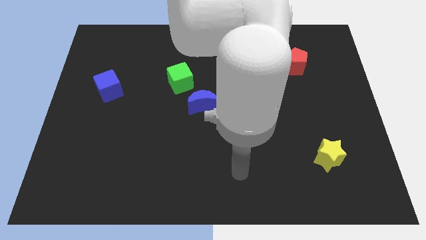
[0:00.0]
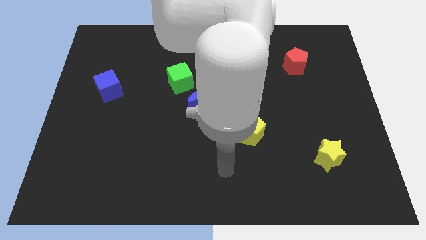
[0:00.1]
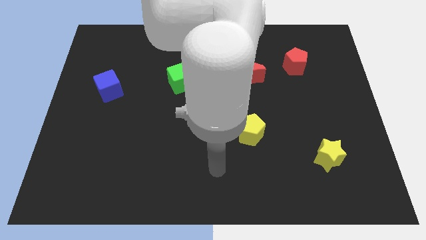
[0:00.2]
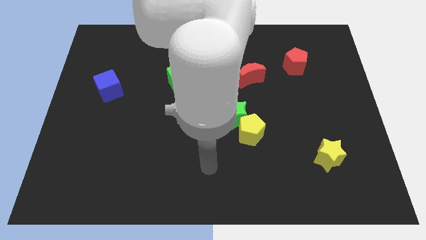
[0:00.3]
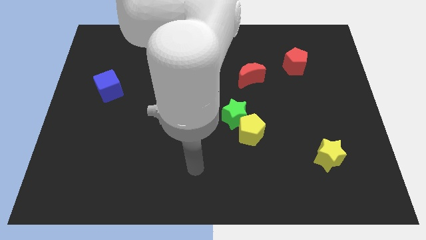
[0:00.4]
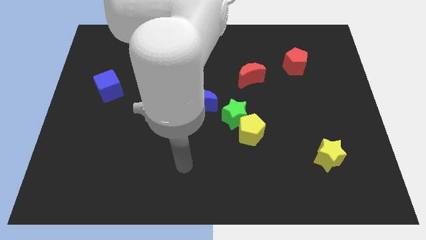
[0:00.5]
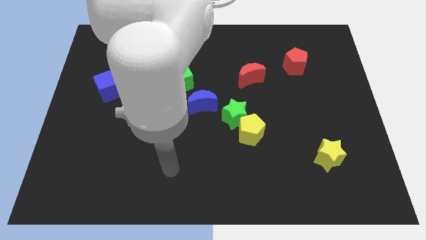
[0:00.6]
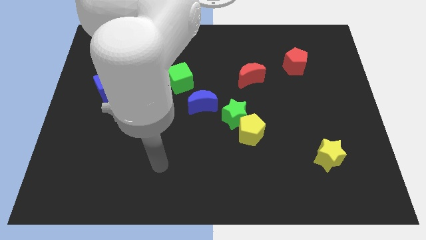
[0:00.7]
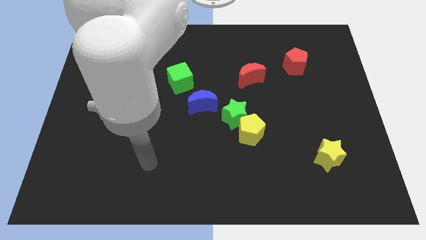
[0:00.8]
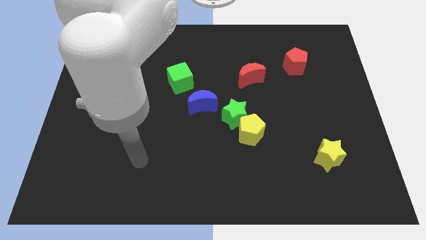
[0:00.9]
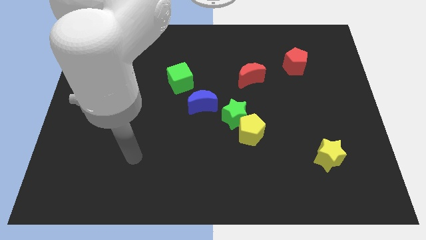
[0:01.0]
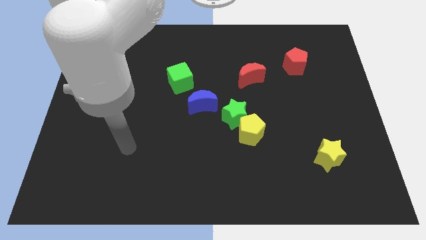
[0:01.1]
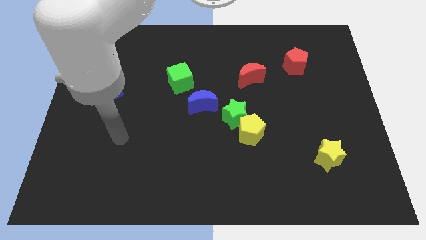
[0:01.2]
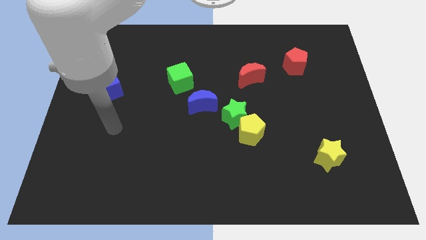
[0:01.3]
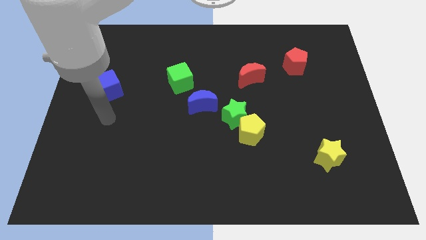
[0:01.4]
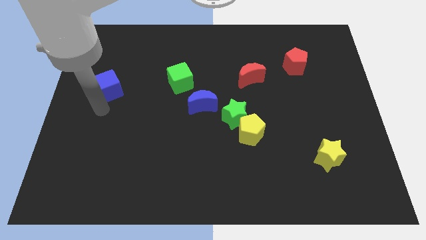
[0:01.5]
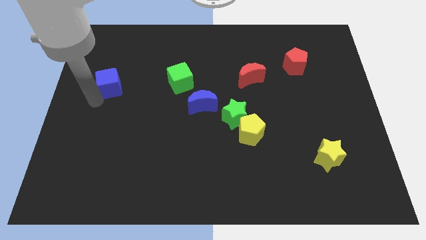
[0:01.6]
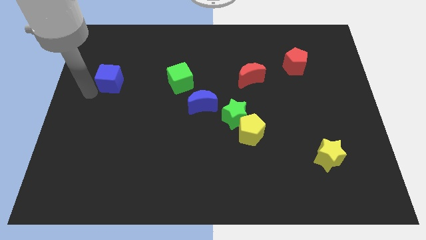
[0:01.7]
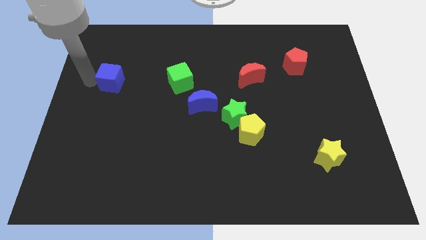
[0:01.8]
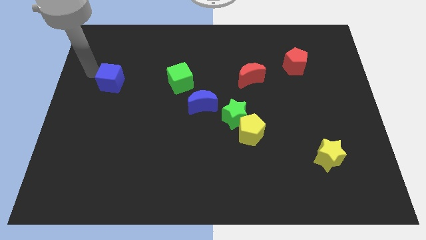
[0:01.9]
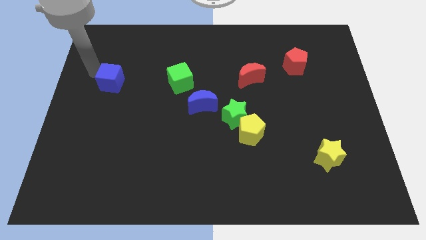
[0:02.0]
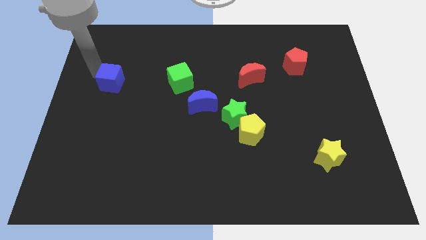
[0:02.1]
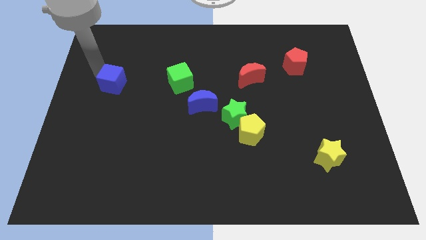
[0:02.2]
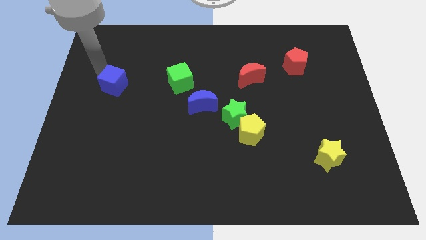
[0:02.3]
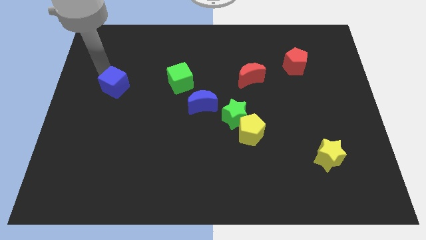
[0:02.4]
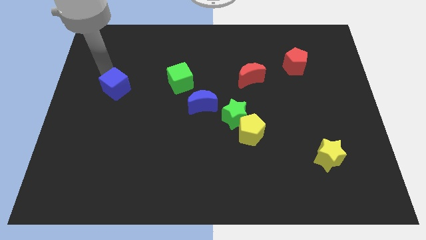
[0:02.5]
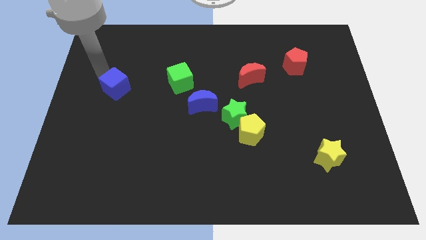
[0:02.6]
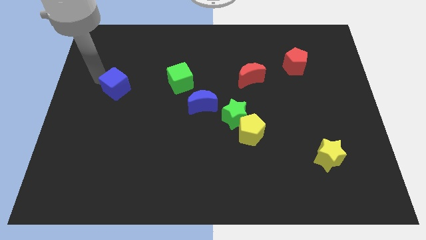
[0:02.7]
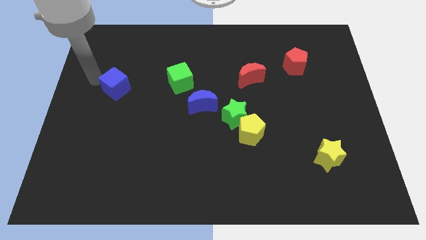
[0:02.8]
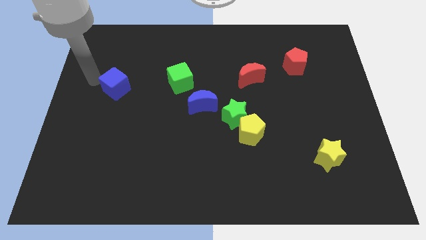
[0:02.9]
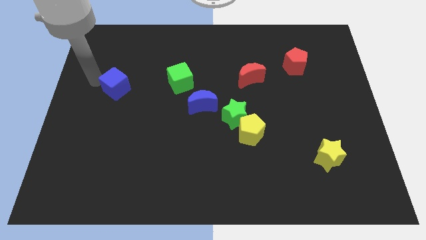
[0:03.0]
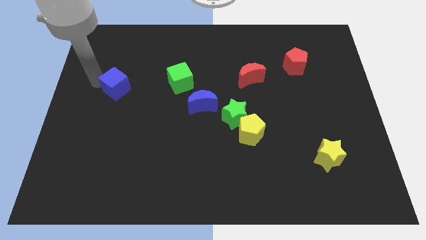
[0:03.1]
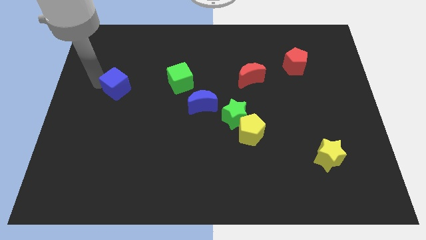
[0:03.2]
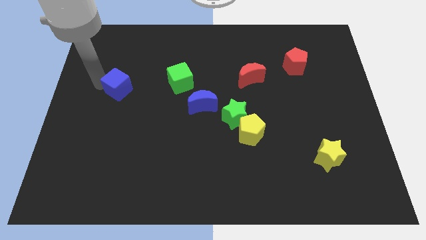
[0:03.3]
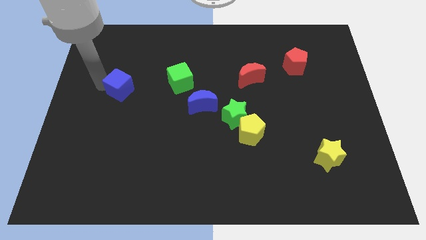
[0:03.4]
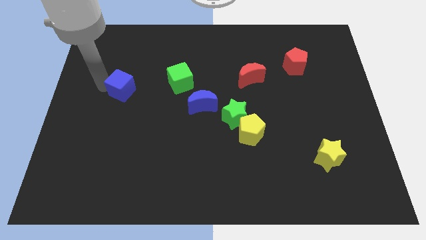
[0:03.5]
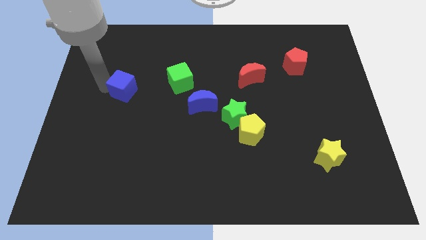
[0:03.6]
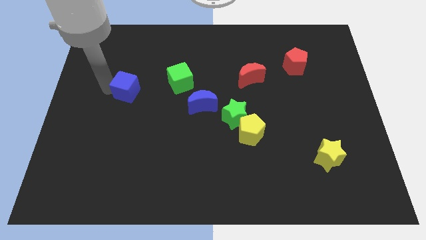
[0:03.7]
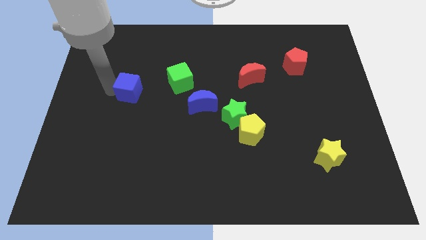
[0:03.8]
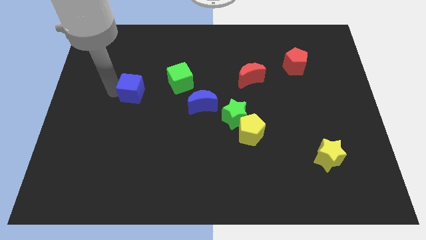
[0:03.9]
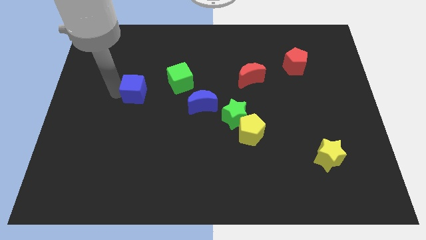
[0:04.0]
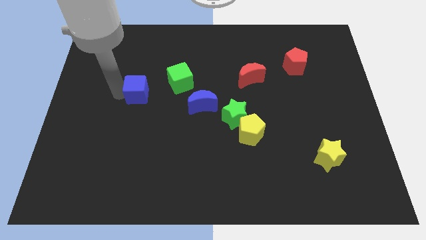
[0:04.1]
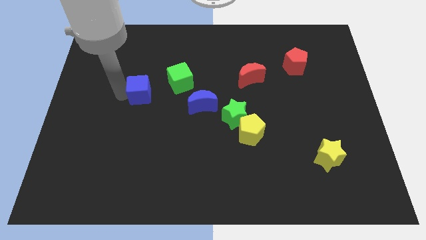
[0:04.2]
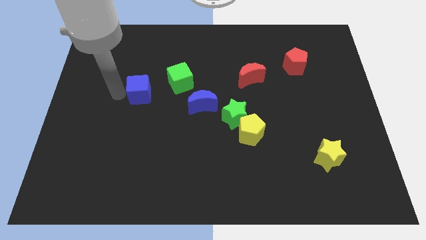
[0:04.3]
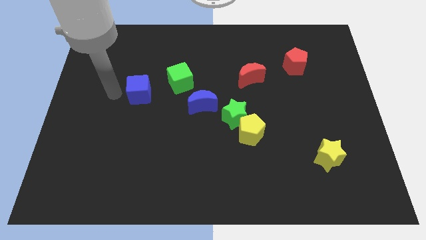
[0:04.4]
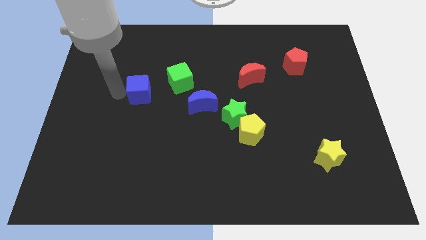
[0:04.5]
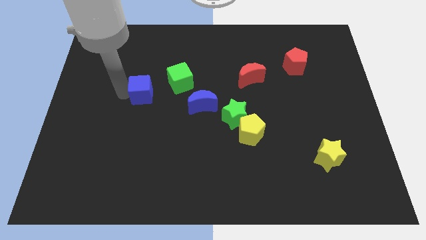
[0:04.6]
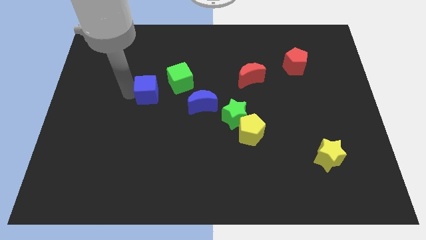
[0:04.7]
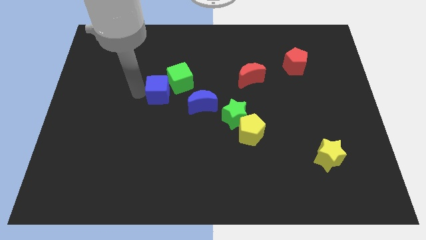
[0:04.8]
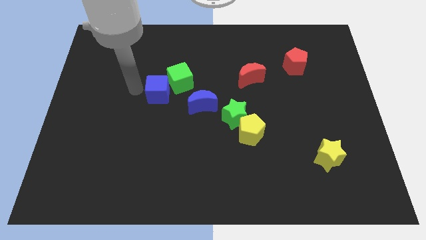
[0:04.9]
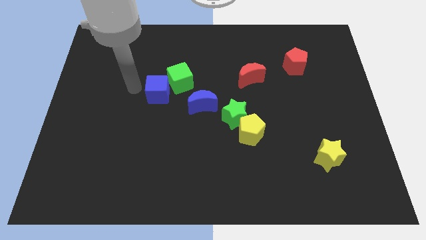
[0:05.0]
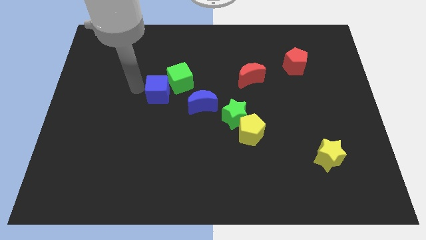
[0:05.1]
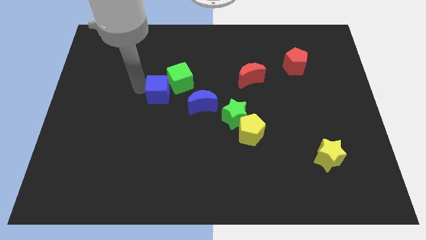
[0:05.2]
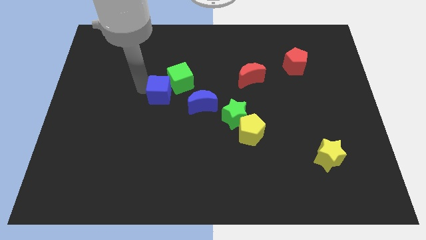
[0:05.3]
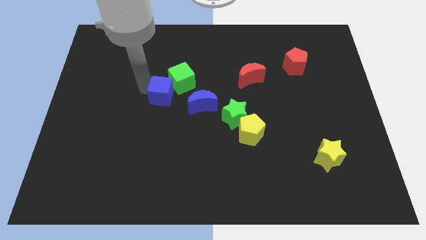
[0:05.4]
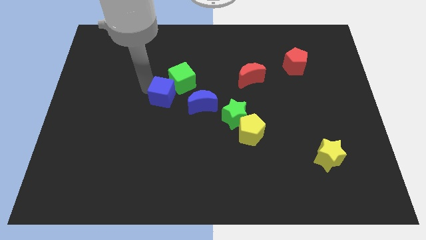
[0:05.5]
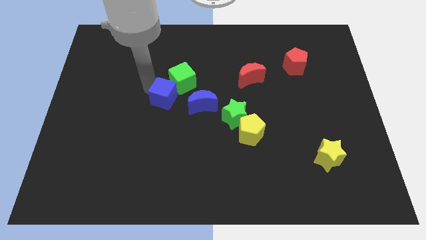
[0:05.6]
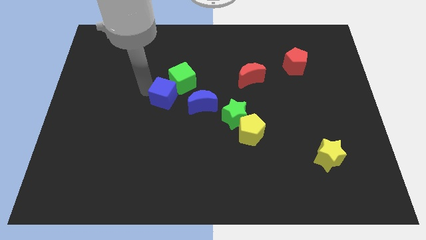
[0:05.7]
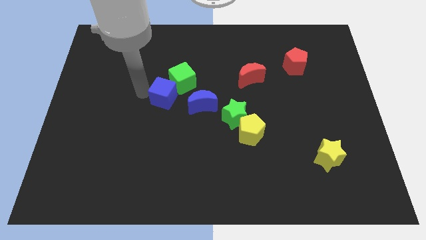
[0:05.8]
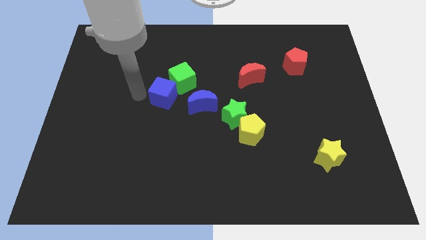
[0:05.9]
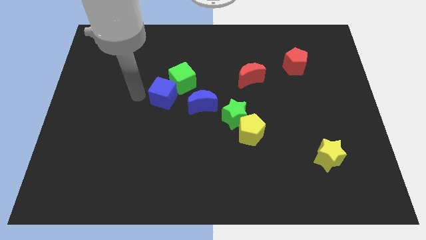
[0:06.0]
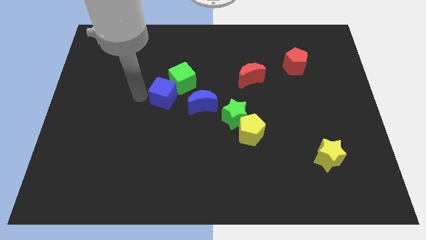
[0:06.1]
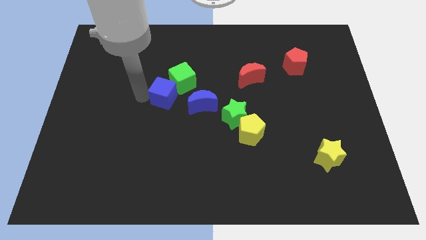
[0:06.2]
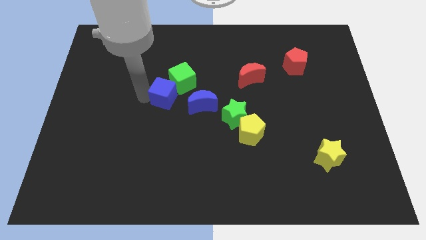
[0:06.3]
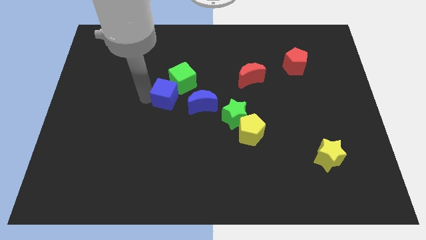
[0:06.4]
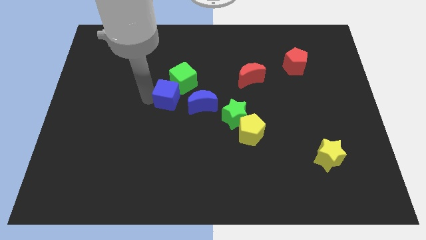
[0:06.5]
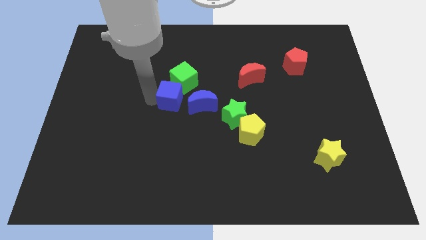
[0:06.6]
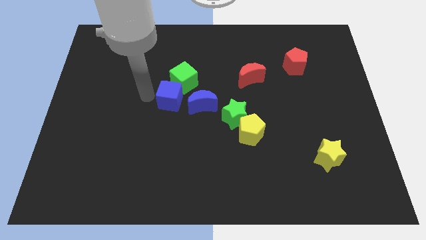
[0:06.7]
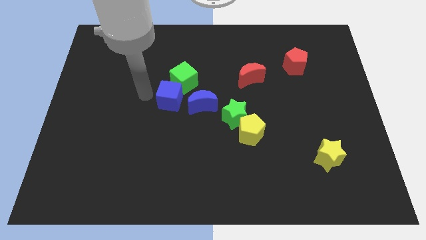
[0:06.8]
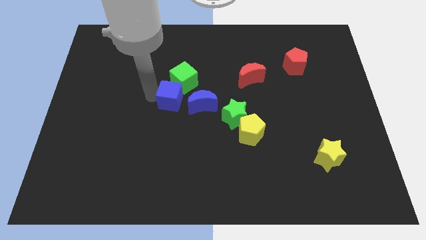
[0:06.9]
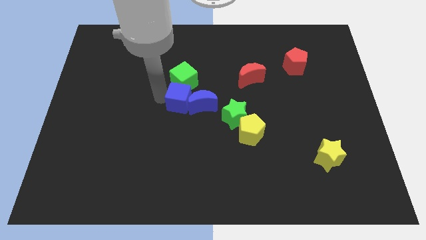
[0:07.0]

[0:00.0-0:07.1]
move the blue cube to the blue moon

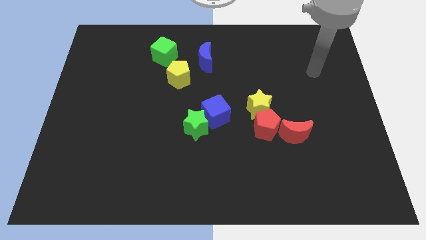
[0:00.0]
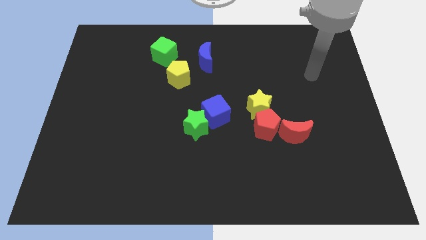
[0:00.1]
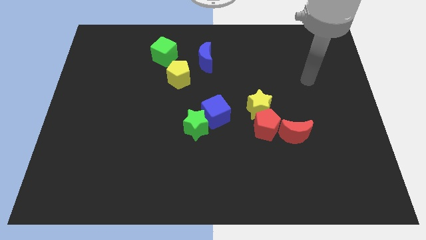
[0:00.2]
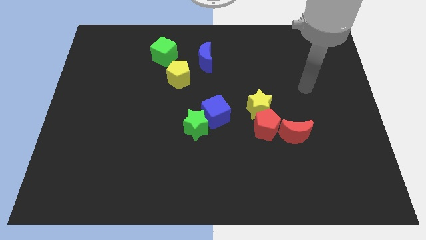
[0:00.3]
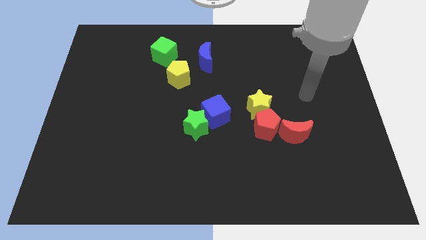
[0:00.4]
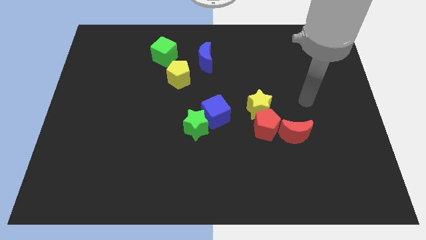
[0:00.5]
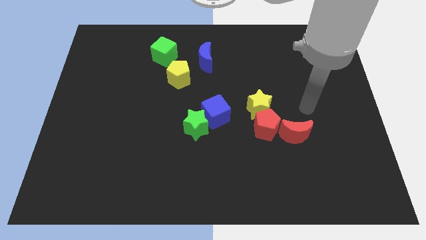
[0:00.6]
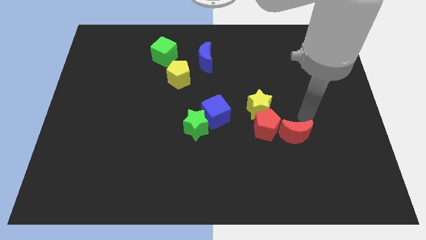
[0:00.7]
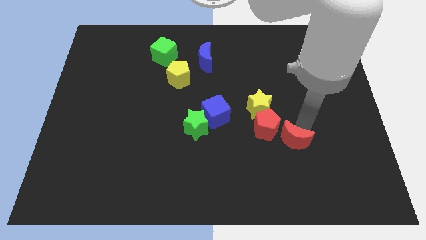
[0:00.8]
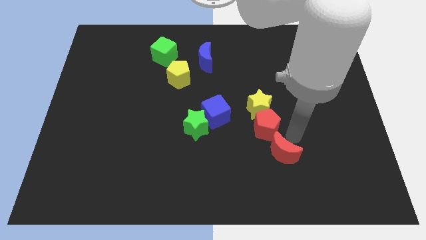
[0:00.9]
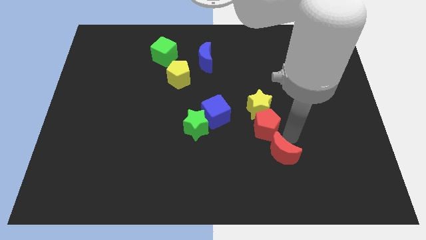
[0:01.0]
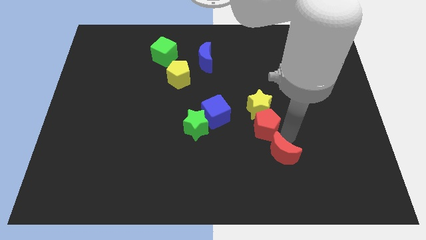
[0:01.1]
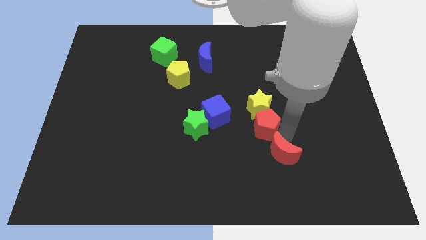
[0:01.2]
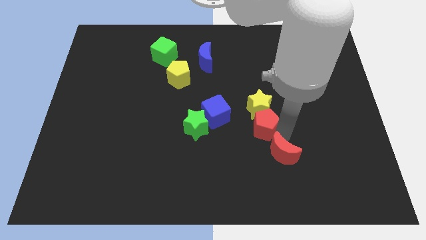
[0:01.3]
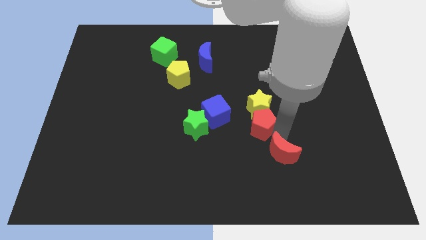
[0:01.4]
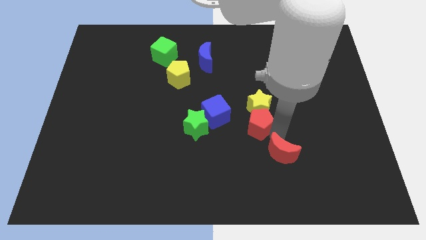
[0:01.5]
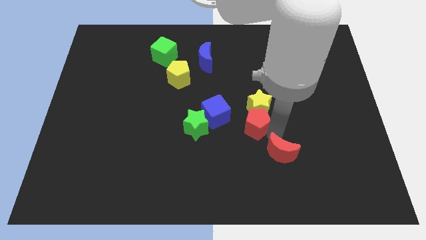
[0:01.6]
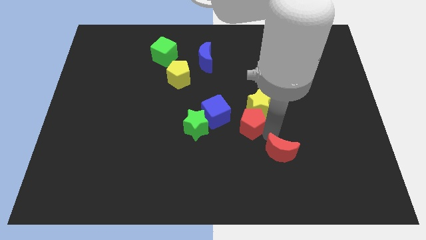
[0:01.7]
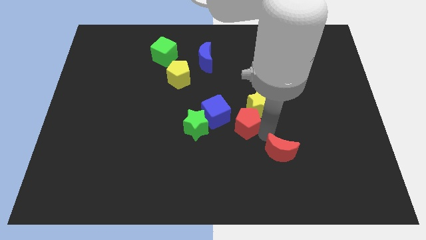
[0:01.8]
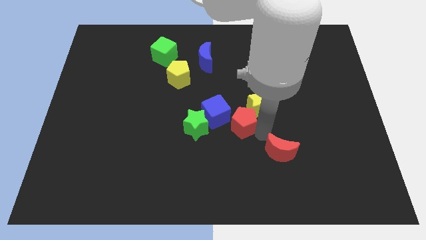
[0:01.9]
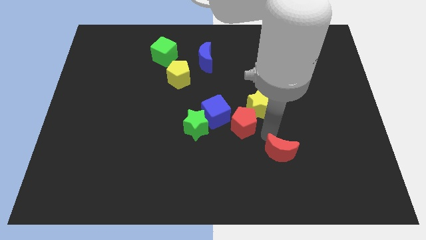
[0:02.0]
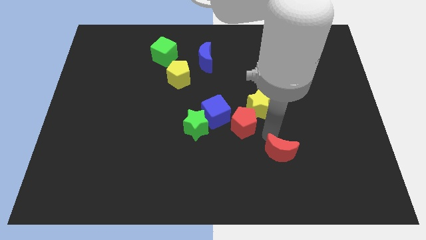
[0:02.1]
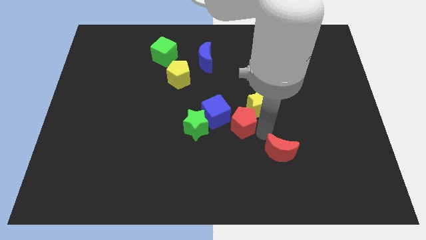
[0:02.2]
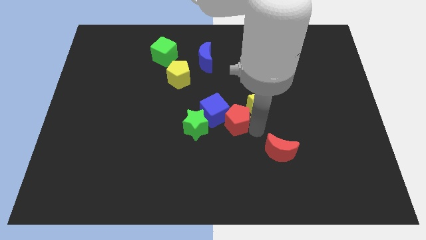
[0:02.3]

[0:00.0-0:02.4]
push the red pentagon close to the blue cube
